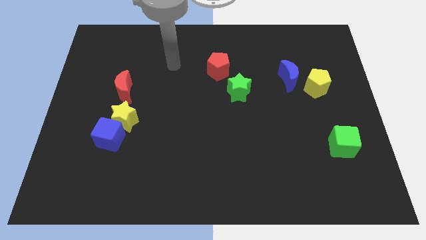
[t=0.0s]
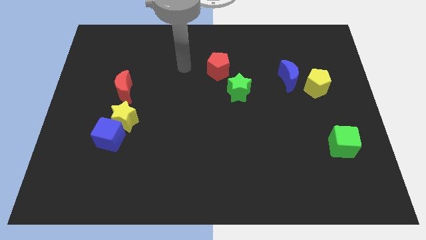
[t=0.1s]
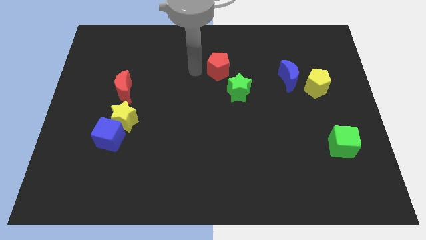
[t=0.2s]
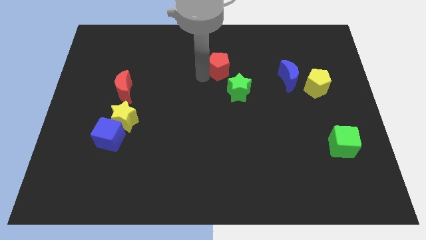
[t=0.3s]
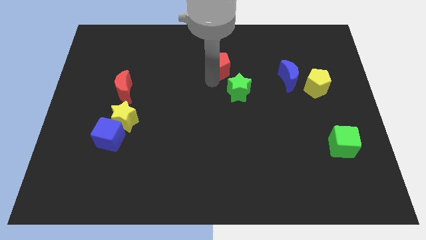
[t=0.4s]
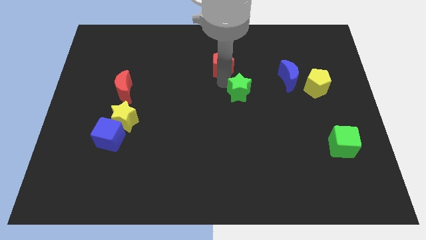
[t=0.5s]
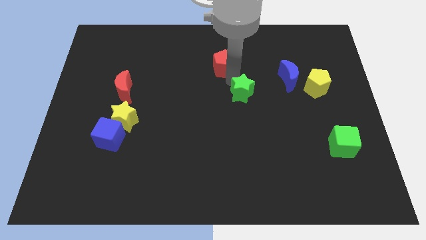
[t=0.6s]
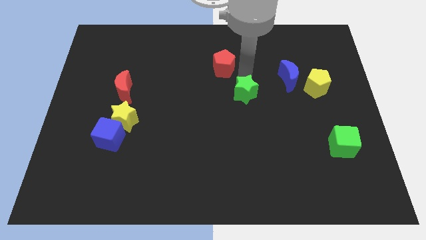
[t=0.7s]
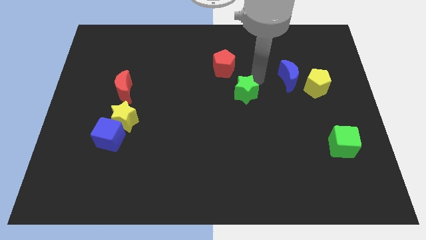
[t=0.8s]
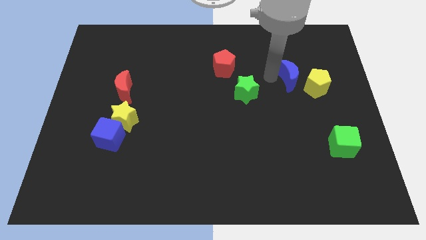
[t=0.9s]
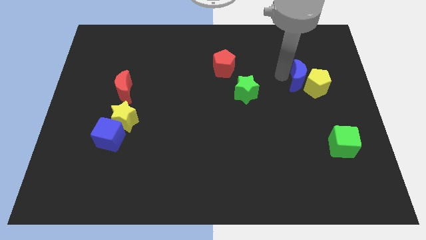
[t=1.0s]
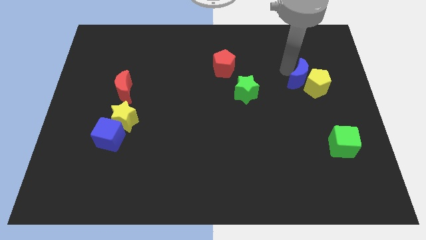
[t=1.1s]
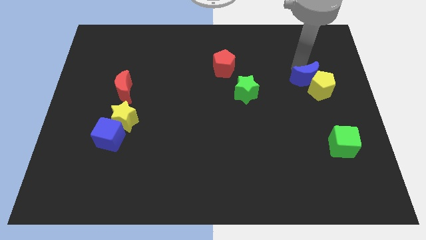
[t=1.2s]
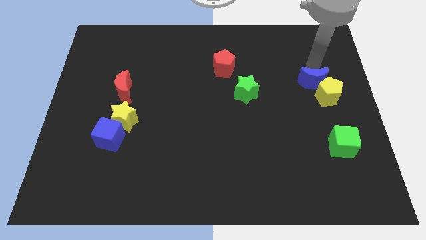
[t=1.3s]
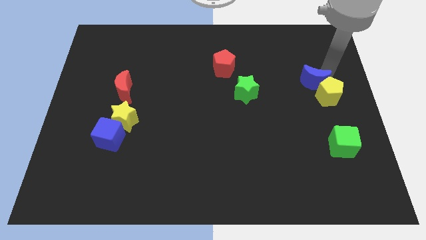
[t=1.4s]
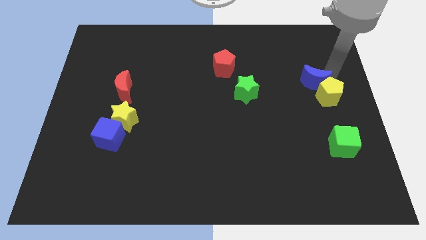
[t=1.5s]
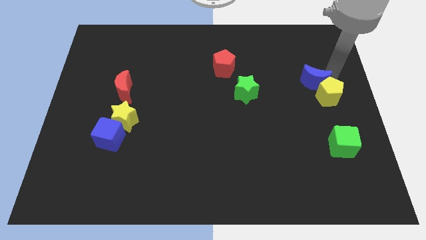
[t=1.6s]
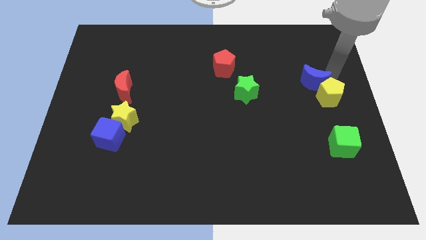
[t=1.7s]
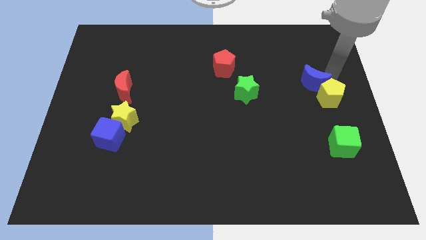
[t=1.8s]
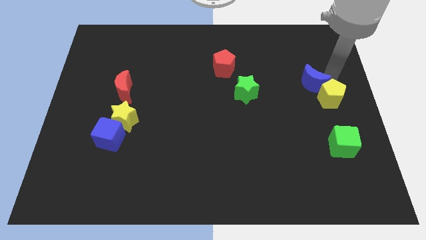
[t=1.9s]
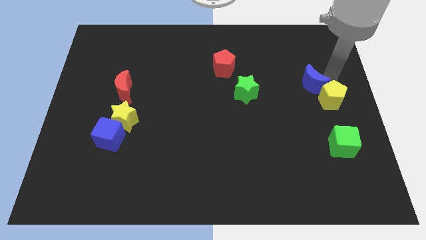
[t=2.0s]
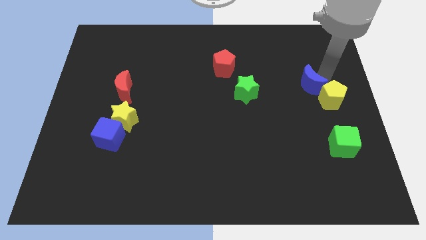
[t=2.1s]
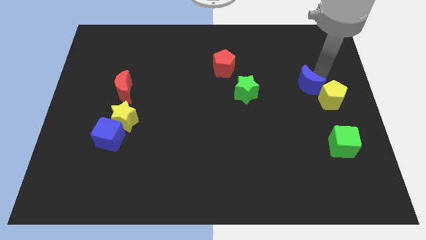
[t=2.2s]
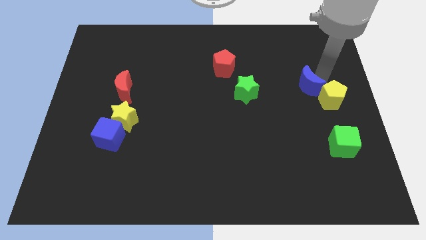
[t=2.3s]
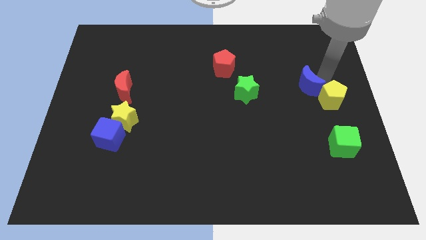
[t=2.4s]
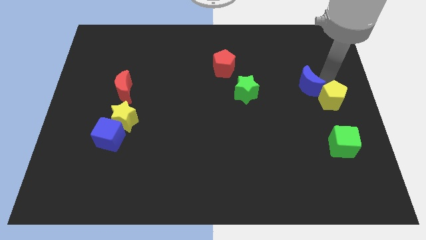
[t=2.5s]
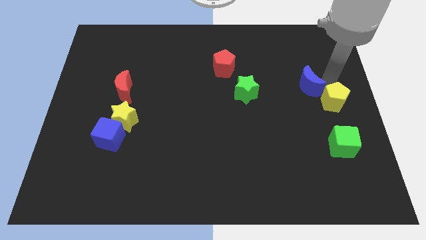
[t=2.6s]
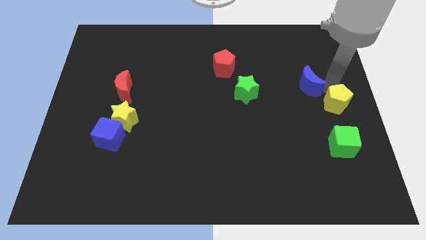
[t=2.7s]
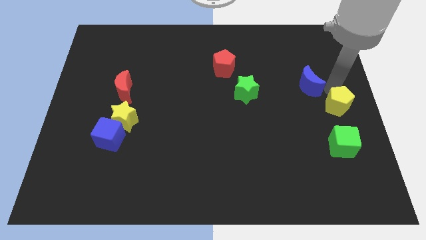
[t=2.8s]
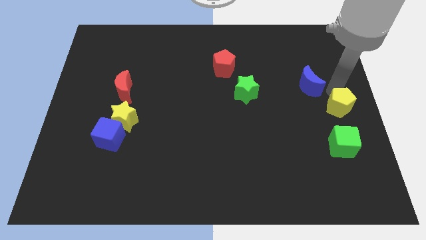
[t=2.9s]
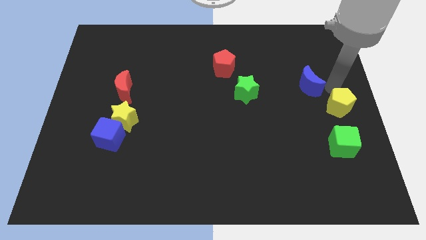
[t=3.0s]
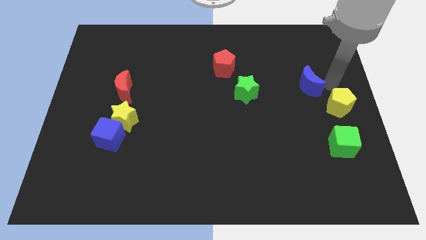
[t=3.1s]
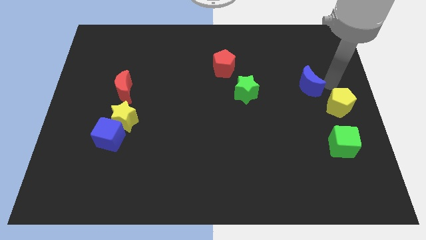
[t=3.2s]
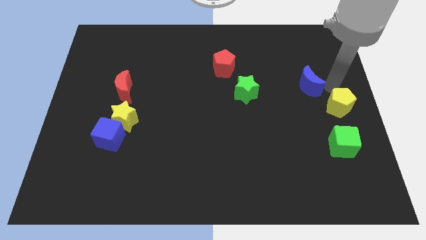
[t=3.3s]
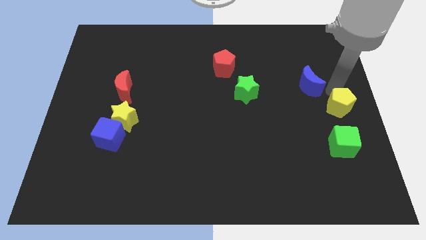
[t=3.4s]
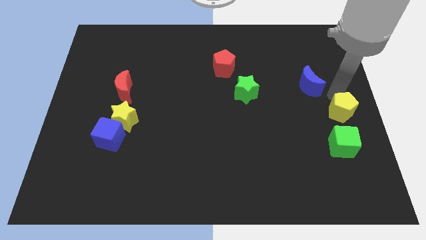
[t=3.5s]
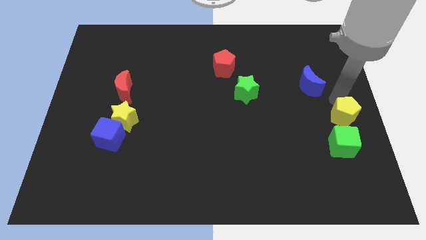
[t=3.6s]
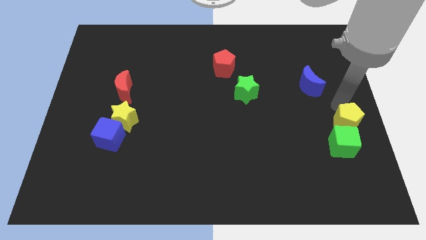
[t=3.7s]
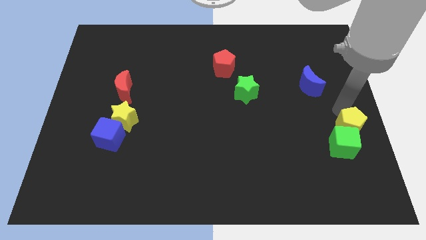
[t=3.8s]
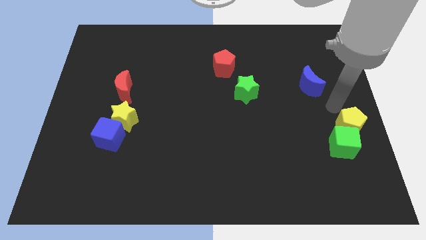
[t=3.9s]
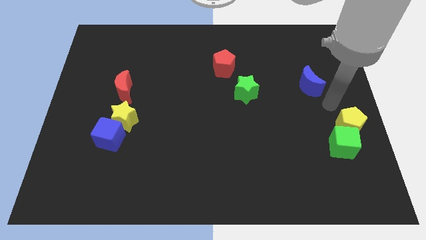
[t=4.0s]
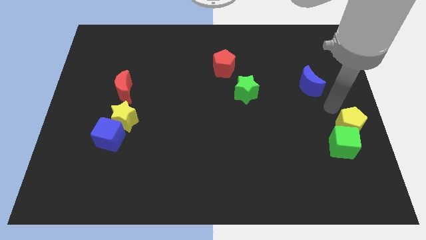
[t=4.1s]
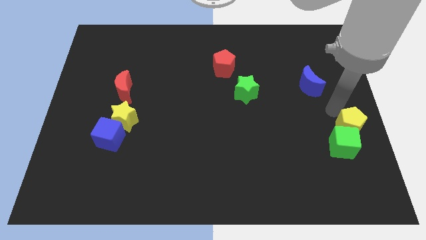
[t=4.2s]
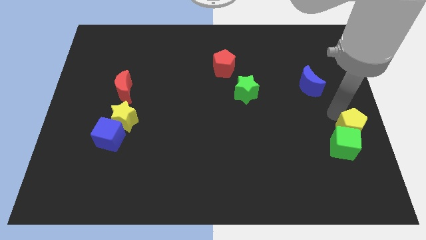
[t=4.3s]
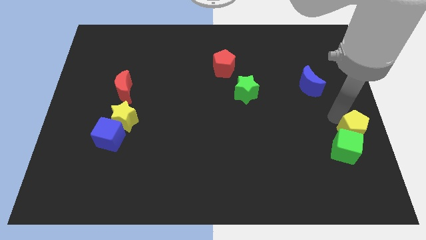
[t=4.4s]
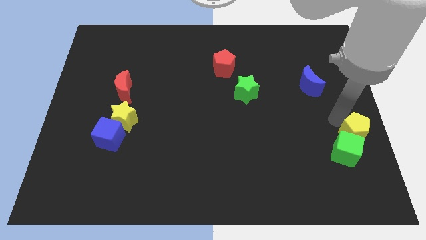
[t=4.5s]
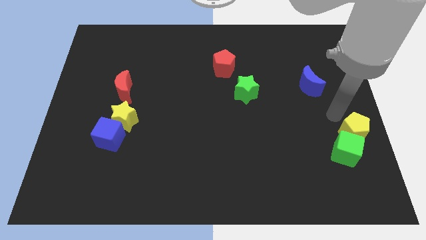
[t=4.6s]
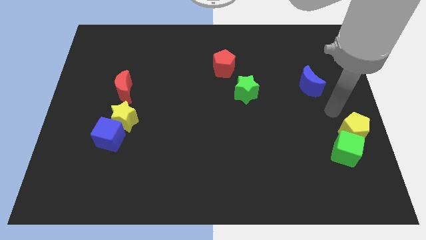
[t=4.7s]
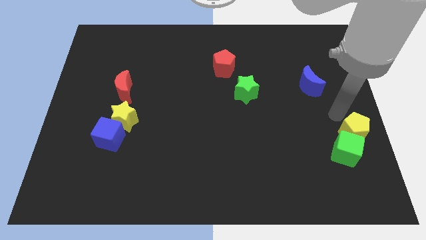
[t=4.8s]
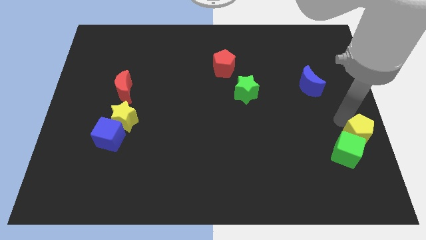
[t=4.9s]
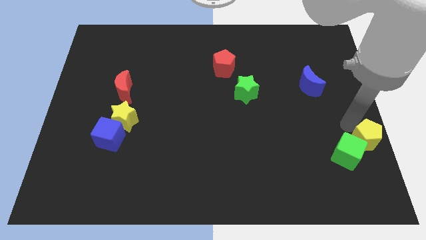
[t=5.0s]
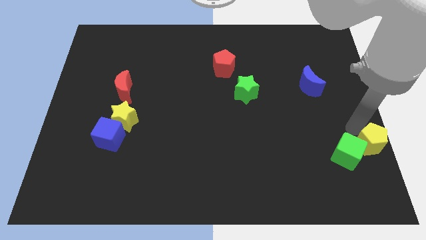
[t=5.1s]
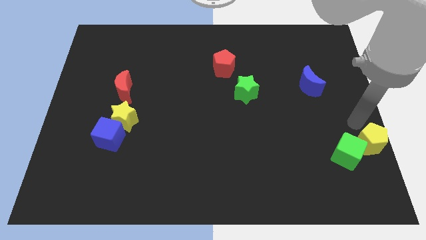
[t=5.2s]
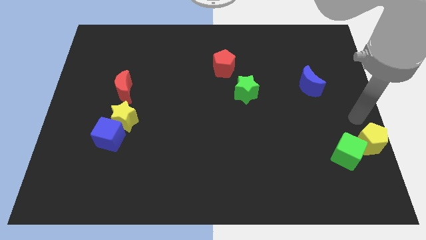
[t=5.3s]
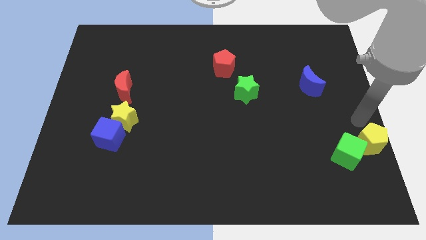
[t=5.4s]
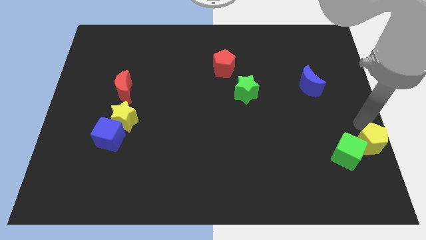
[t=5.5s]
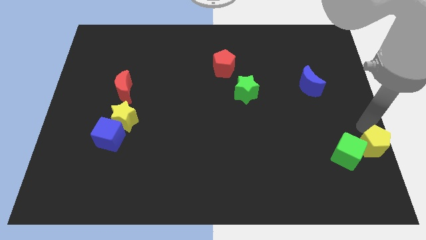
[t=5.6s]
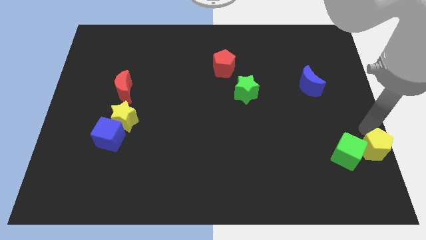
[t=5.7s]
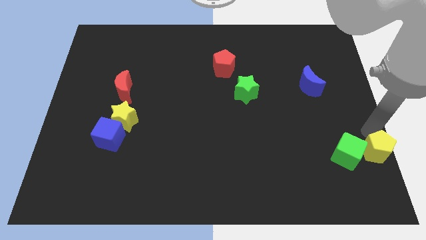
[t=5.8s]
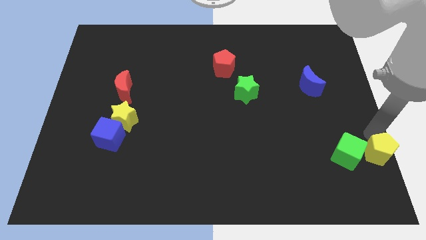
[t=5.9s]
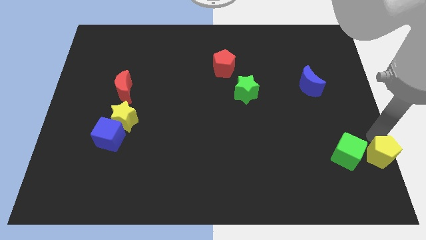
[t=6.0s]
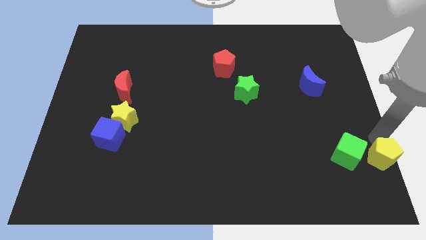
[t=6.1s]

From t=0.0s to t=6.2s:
slide the yellow pentagon to the bottom right of the board

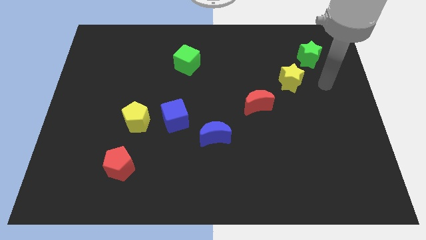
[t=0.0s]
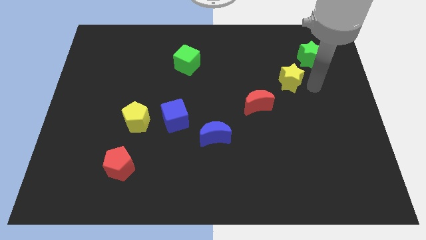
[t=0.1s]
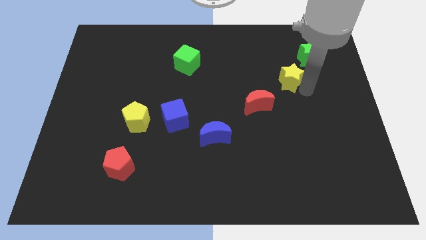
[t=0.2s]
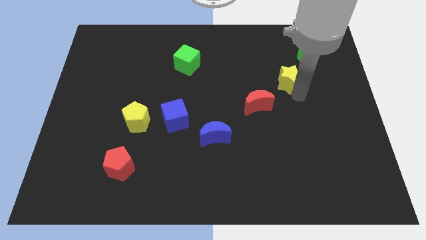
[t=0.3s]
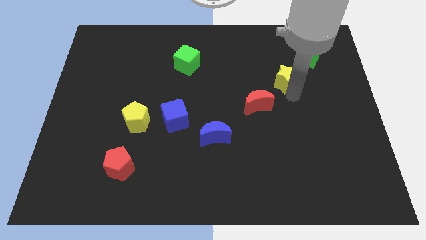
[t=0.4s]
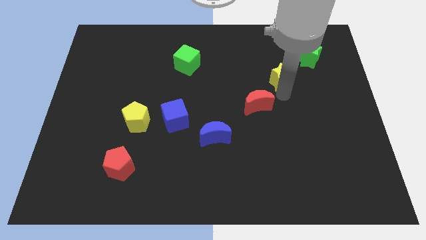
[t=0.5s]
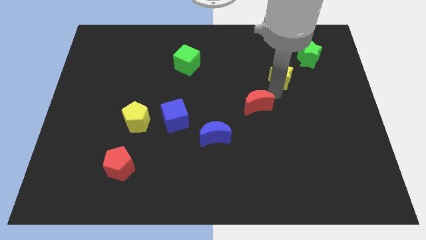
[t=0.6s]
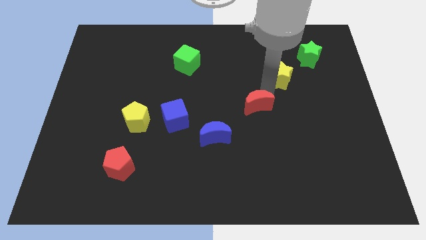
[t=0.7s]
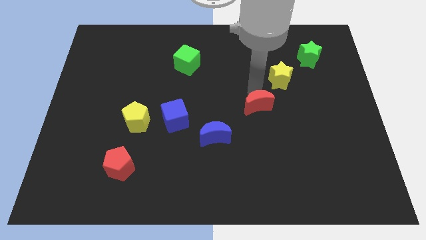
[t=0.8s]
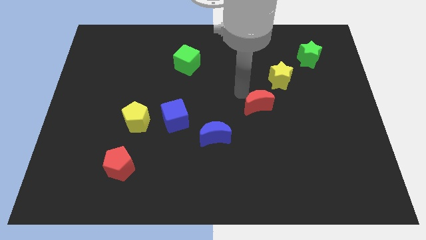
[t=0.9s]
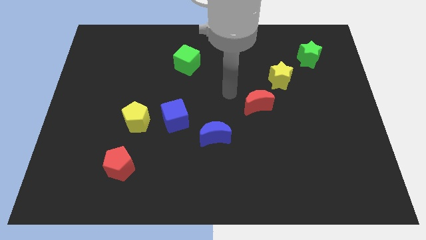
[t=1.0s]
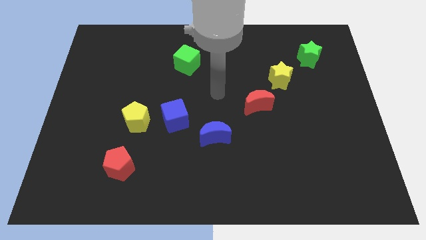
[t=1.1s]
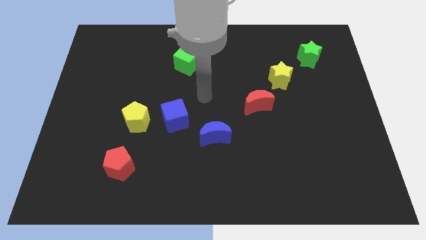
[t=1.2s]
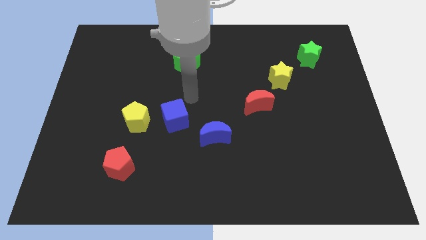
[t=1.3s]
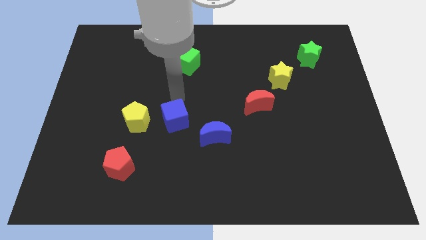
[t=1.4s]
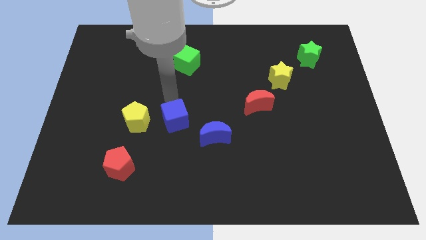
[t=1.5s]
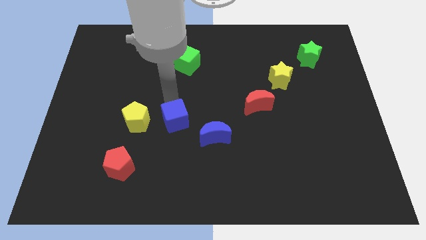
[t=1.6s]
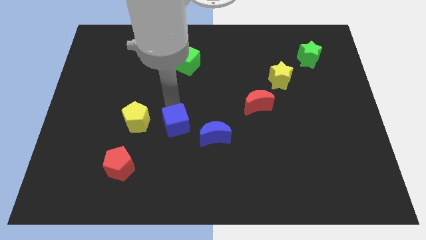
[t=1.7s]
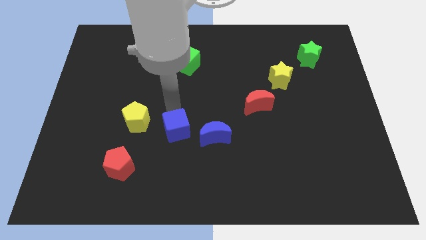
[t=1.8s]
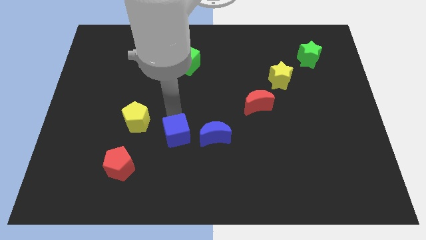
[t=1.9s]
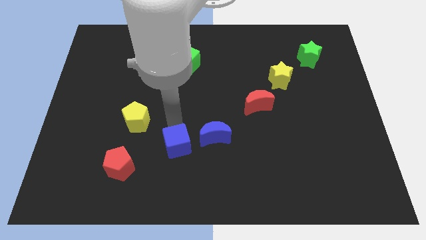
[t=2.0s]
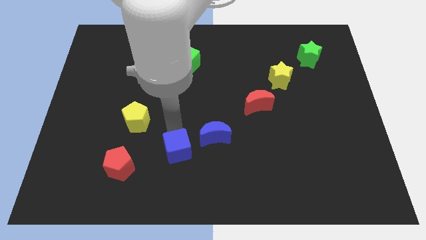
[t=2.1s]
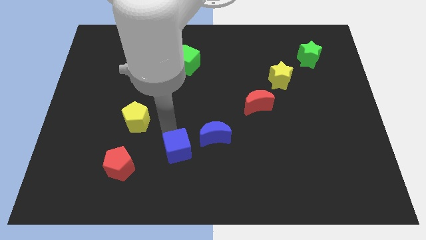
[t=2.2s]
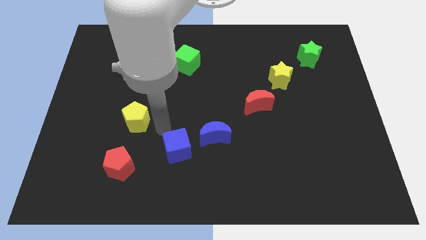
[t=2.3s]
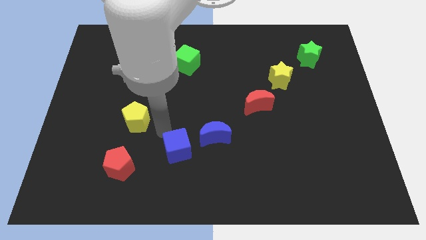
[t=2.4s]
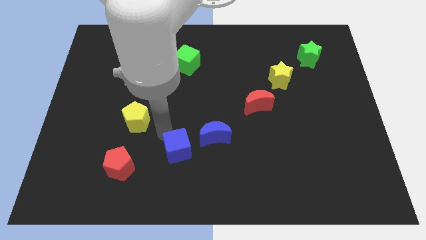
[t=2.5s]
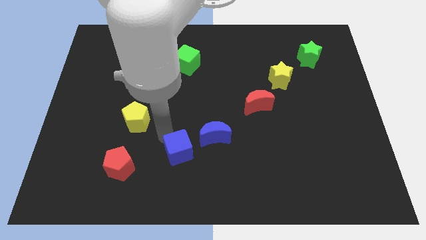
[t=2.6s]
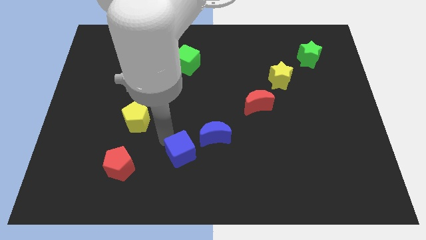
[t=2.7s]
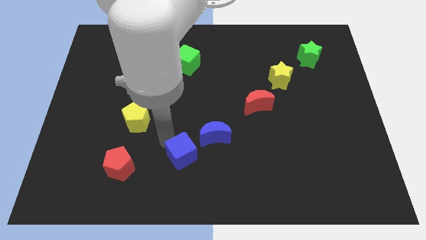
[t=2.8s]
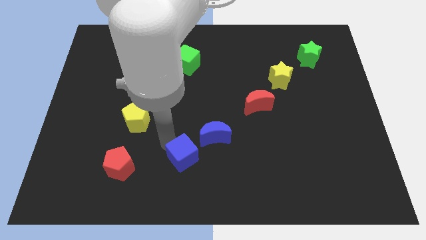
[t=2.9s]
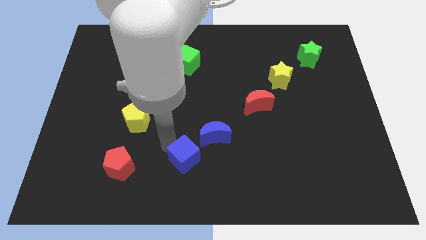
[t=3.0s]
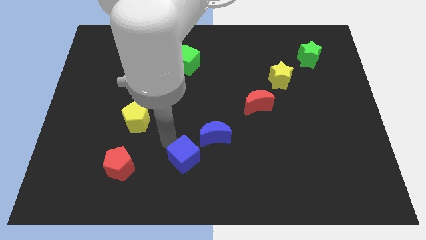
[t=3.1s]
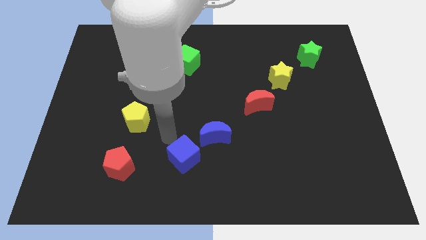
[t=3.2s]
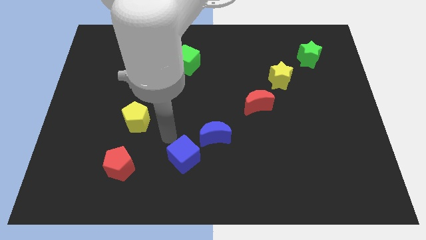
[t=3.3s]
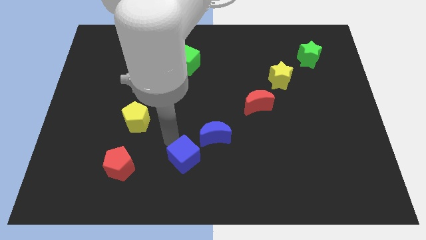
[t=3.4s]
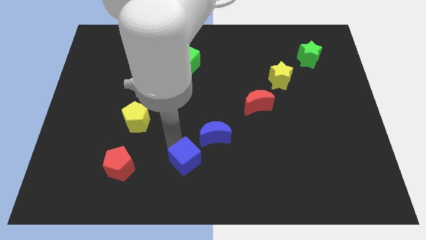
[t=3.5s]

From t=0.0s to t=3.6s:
put the blue cube to the bottom side
